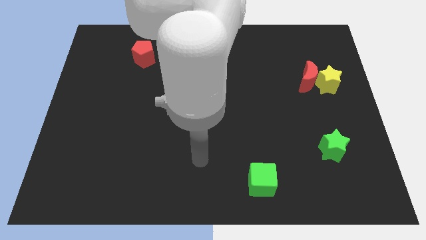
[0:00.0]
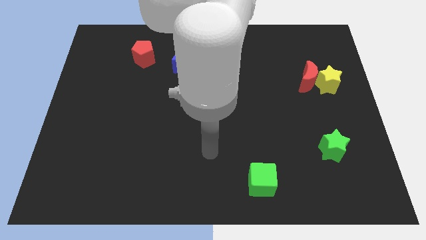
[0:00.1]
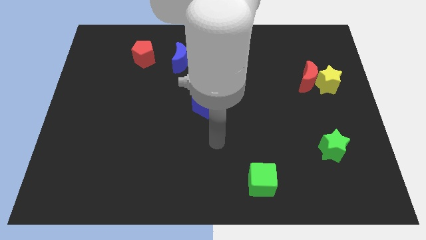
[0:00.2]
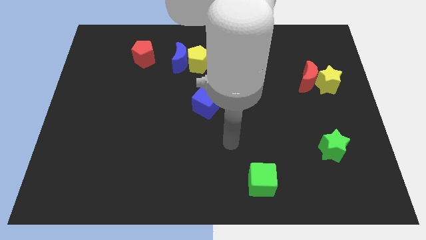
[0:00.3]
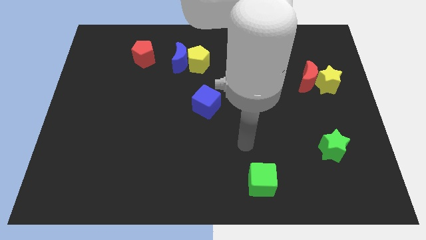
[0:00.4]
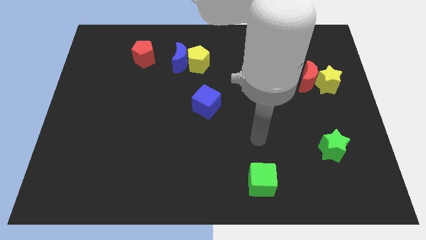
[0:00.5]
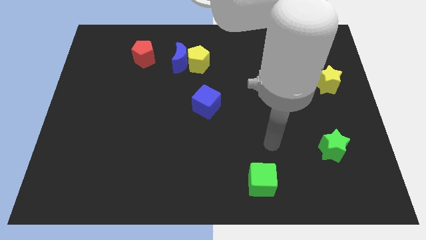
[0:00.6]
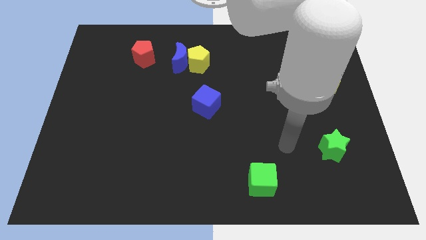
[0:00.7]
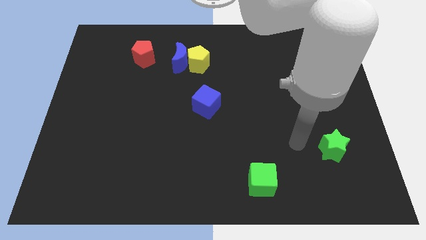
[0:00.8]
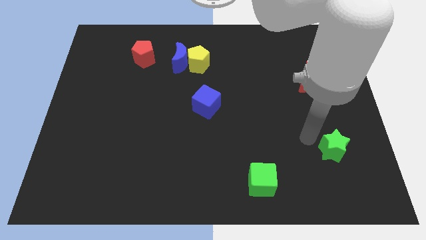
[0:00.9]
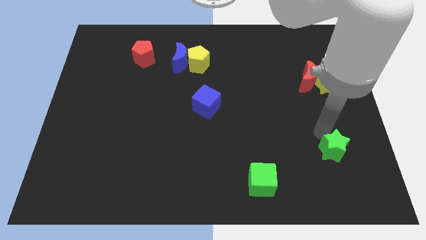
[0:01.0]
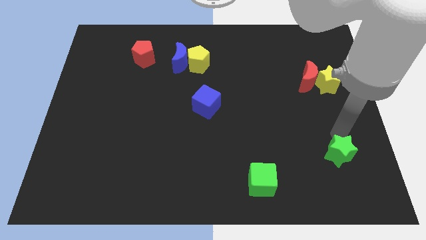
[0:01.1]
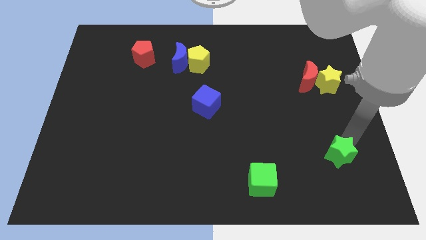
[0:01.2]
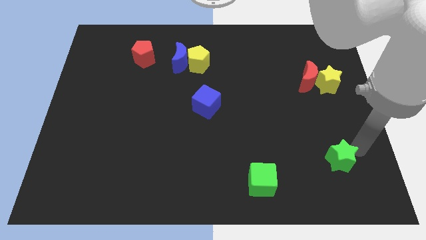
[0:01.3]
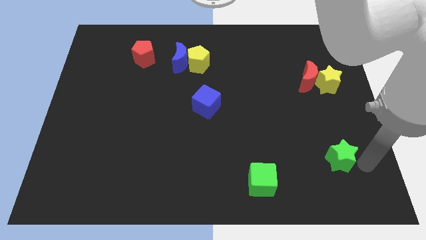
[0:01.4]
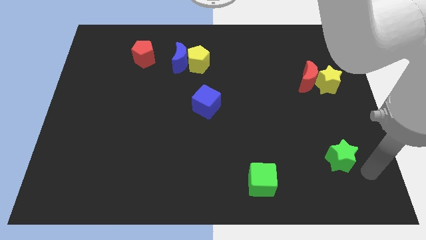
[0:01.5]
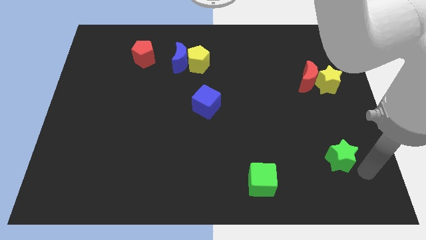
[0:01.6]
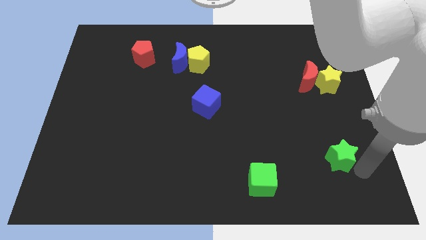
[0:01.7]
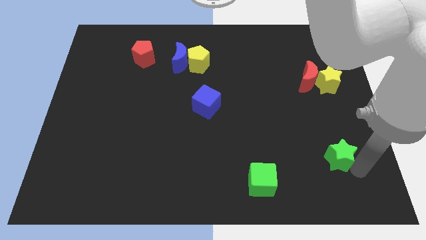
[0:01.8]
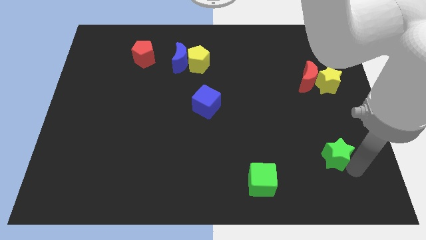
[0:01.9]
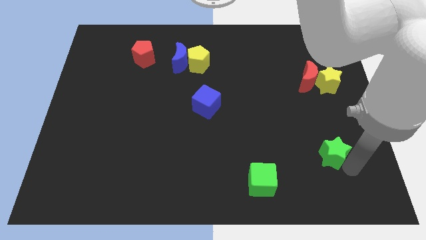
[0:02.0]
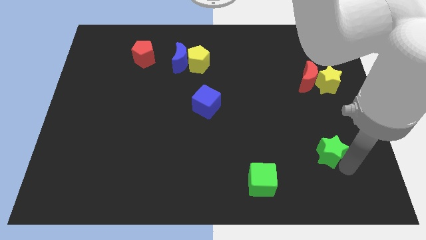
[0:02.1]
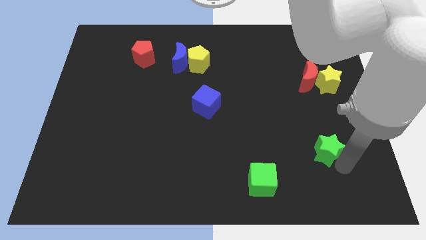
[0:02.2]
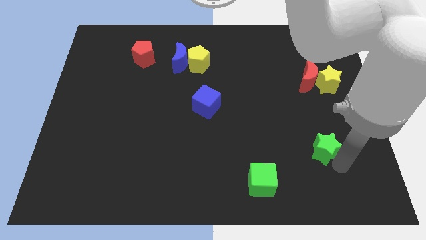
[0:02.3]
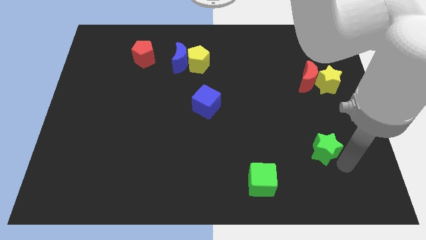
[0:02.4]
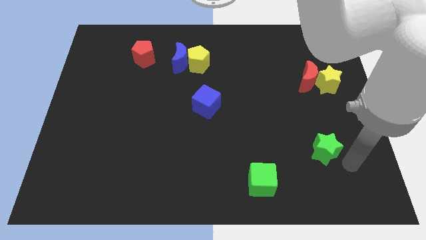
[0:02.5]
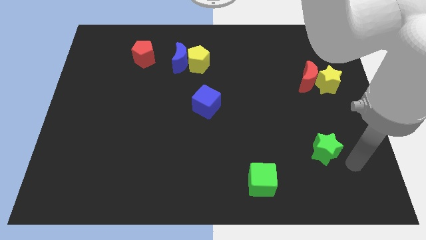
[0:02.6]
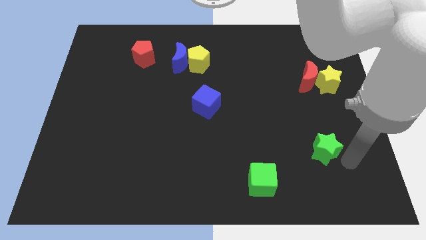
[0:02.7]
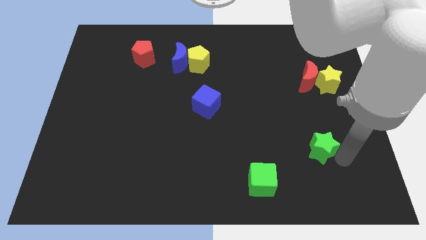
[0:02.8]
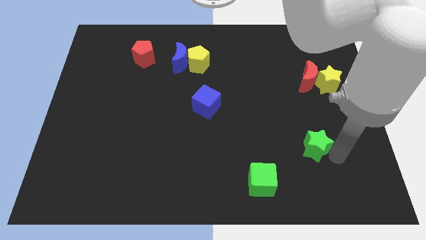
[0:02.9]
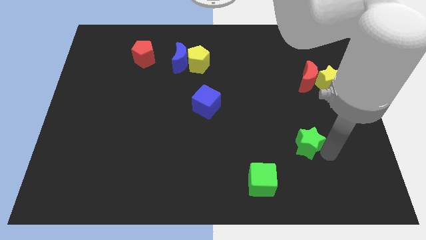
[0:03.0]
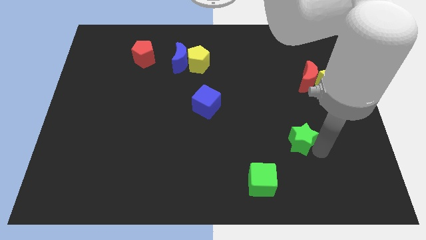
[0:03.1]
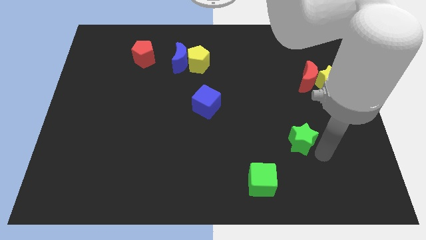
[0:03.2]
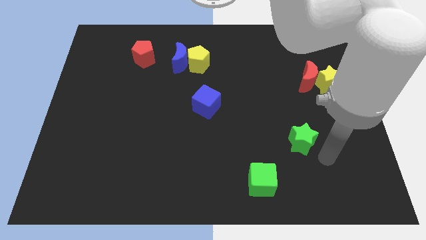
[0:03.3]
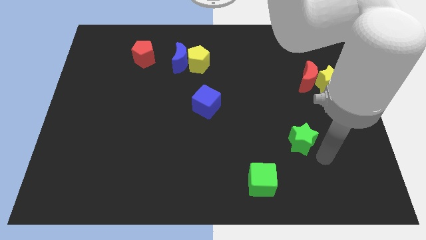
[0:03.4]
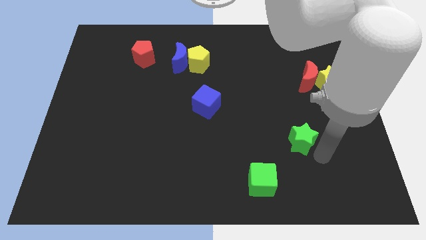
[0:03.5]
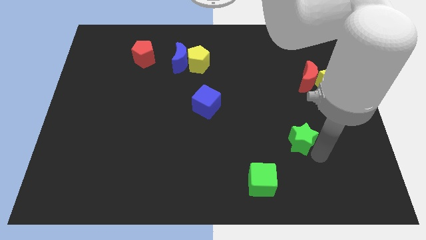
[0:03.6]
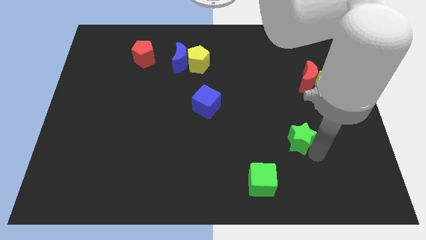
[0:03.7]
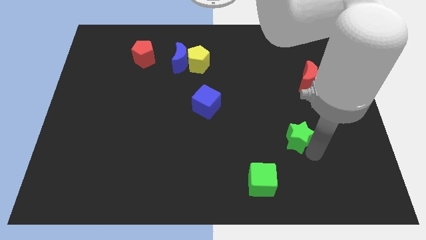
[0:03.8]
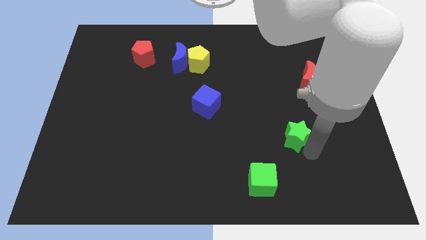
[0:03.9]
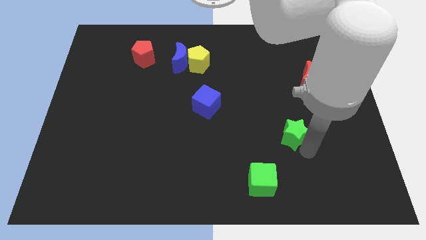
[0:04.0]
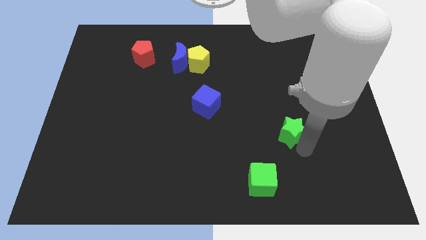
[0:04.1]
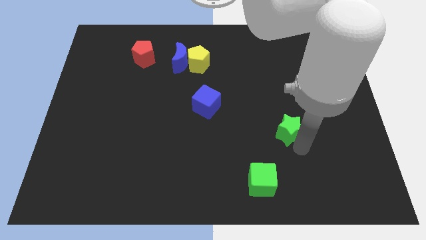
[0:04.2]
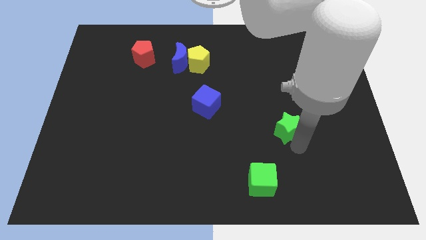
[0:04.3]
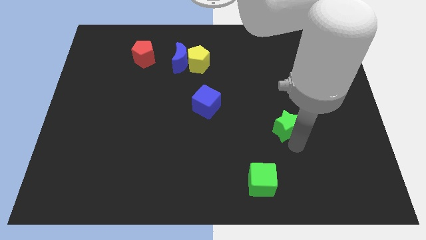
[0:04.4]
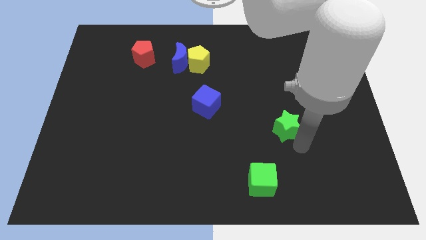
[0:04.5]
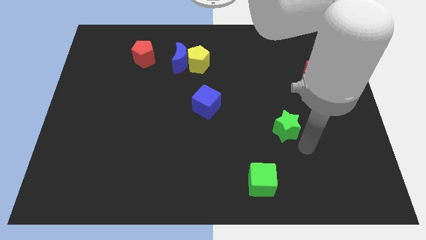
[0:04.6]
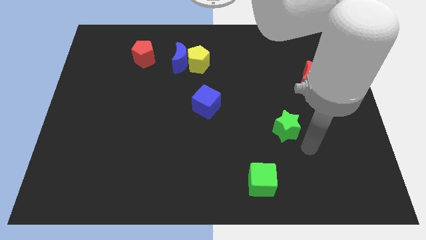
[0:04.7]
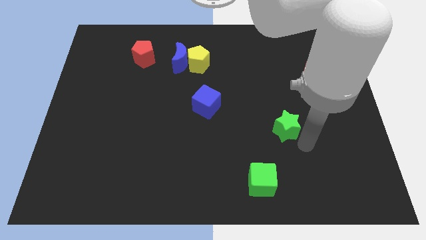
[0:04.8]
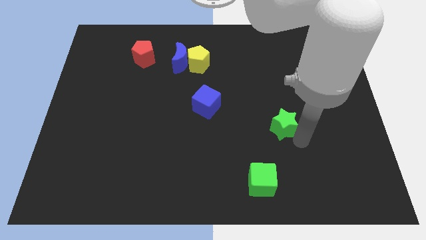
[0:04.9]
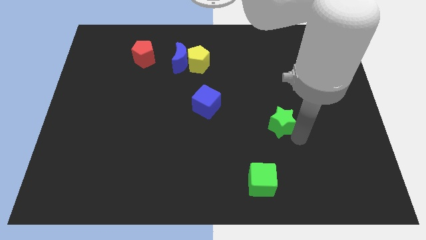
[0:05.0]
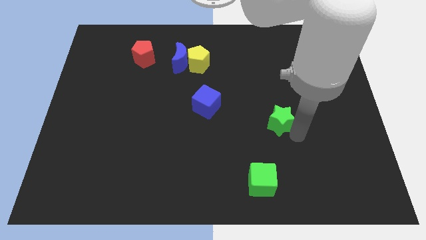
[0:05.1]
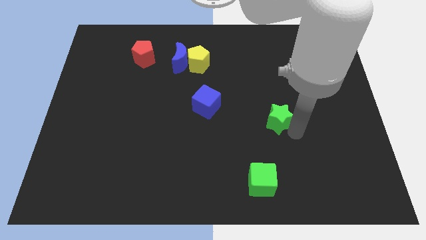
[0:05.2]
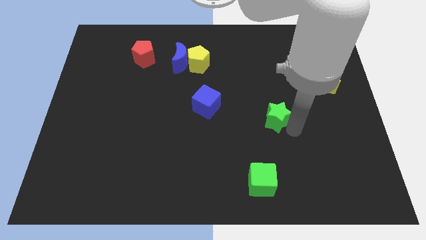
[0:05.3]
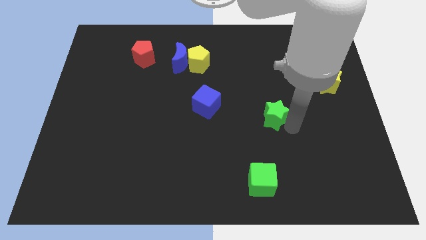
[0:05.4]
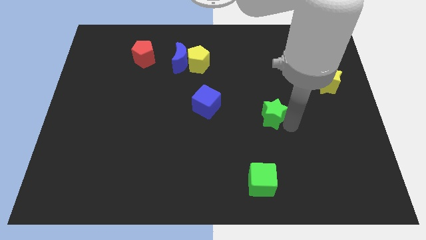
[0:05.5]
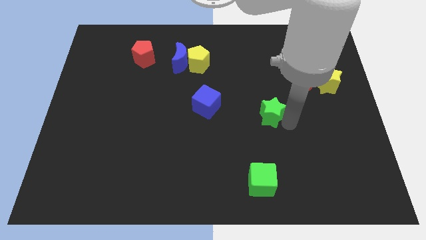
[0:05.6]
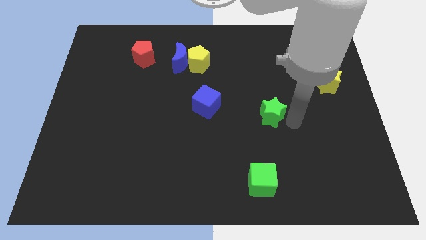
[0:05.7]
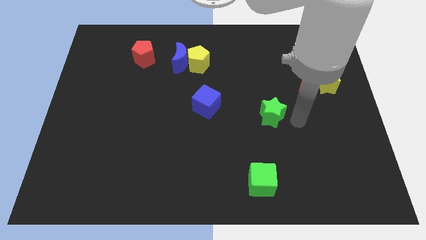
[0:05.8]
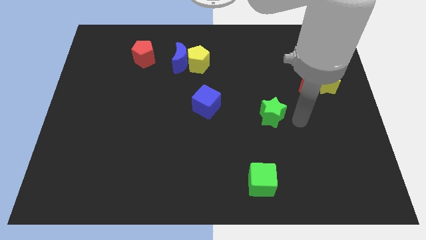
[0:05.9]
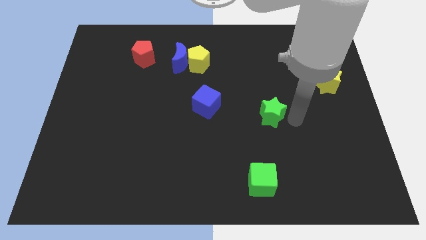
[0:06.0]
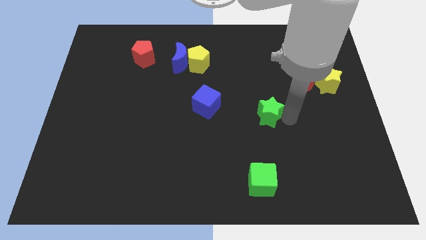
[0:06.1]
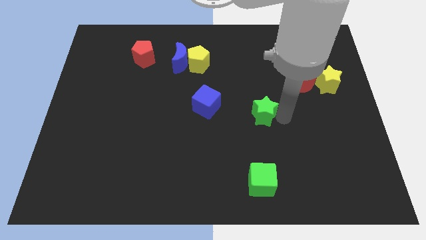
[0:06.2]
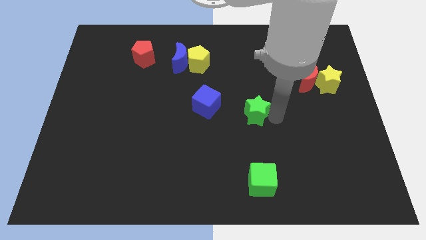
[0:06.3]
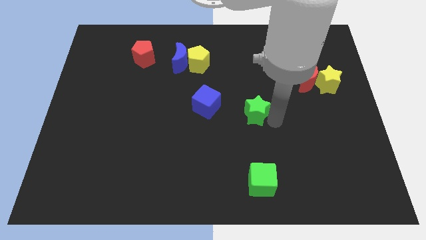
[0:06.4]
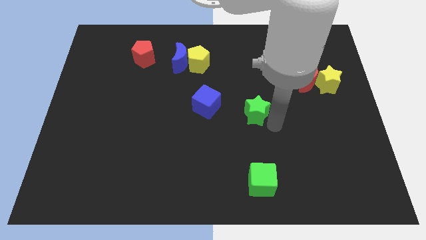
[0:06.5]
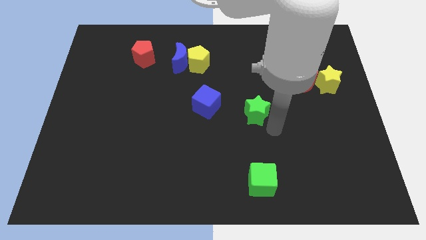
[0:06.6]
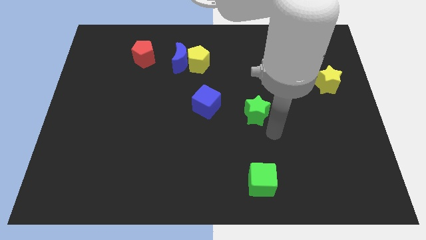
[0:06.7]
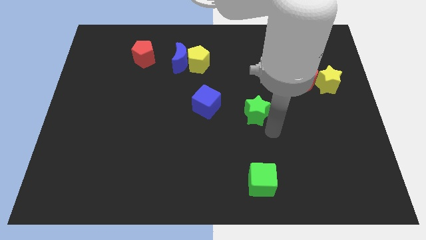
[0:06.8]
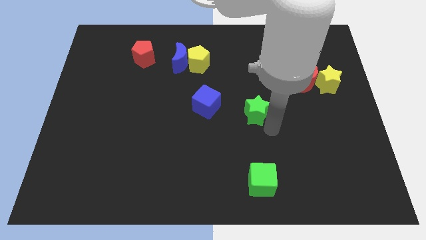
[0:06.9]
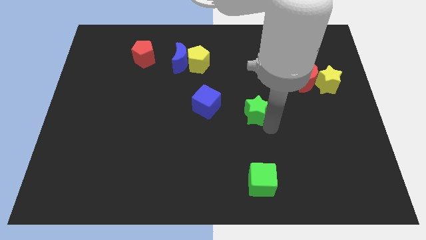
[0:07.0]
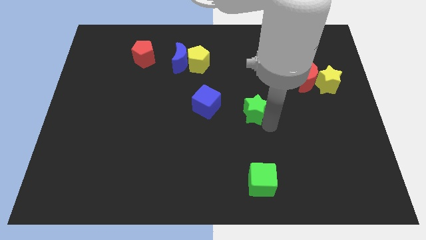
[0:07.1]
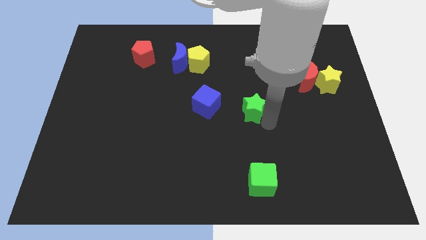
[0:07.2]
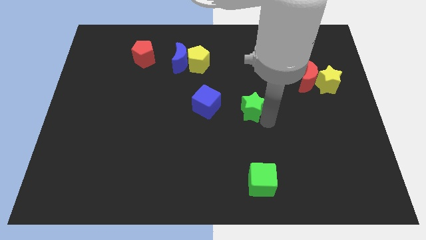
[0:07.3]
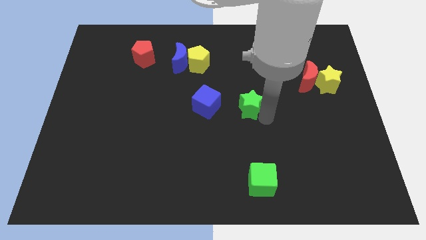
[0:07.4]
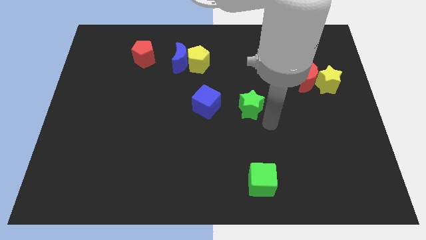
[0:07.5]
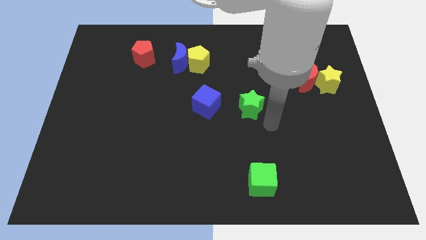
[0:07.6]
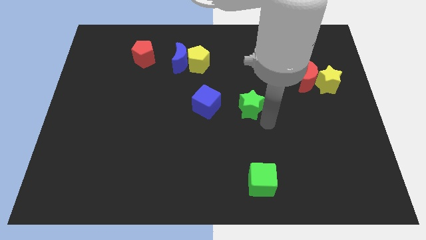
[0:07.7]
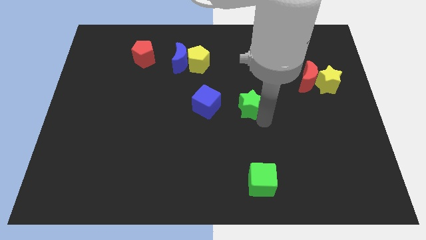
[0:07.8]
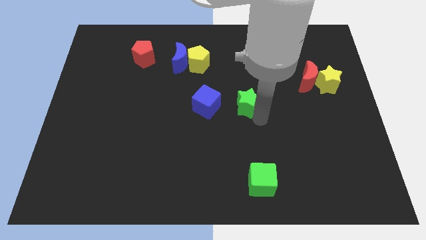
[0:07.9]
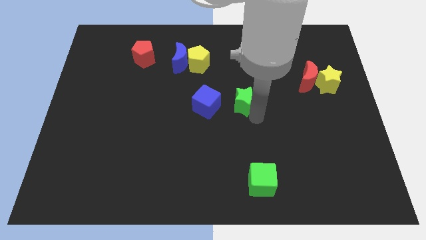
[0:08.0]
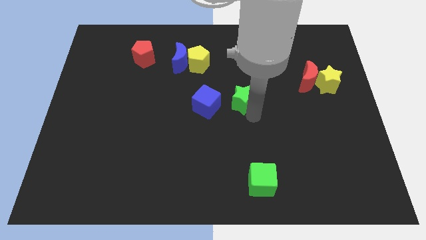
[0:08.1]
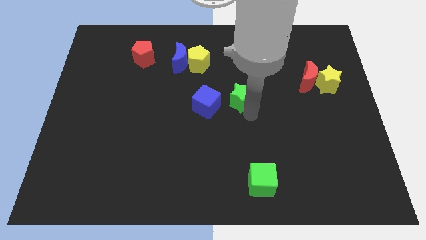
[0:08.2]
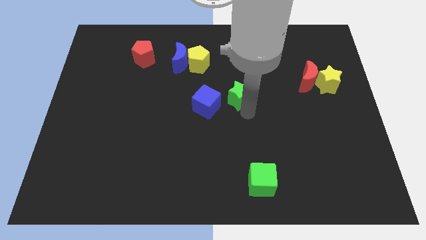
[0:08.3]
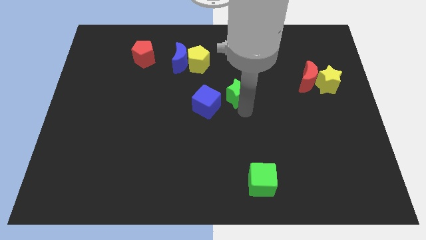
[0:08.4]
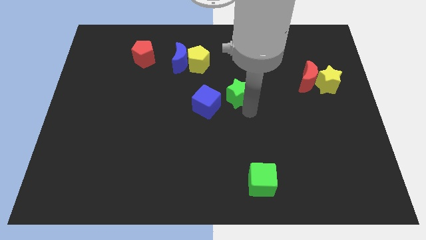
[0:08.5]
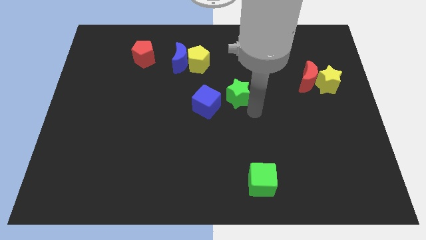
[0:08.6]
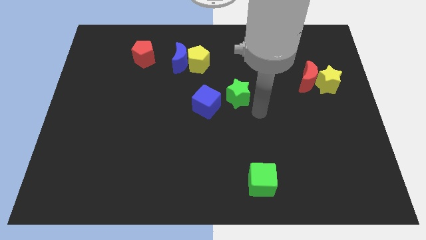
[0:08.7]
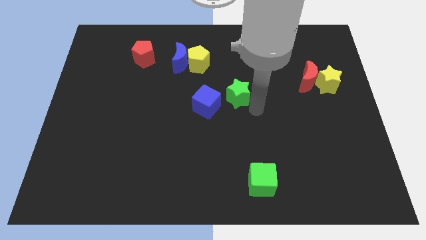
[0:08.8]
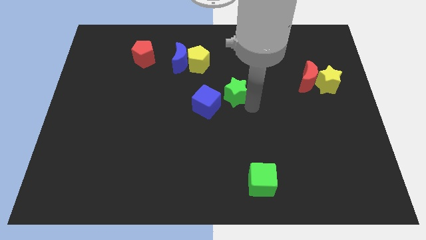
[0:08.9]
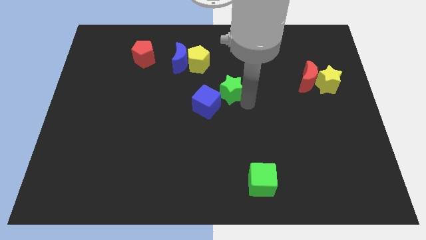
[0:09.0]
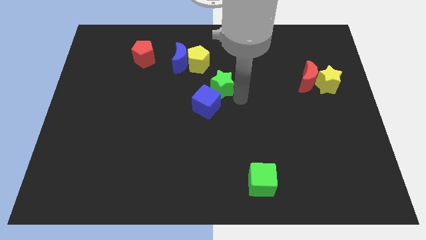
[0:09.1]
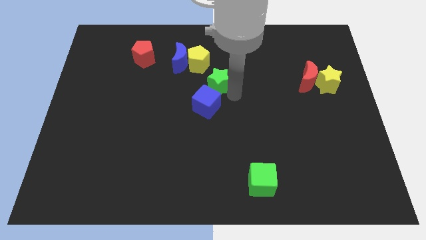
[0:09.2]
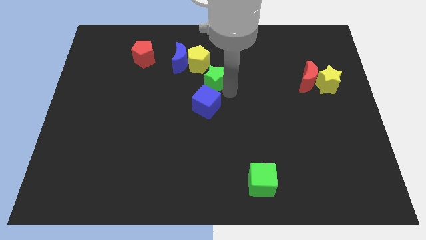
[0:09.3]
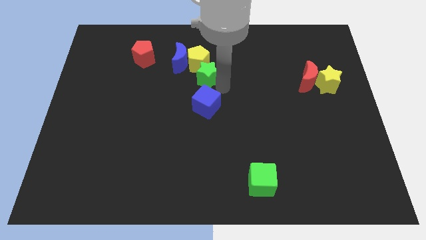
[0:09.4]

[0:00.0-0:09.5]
put the green star to the yellow pentagon
